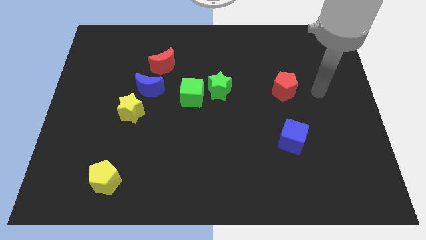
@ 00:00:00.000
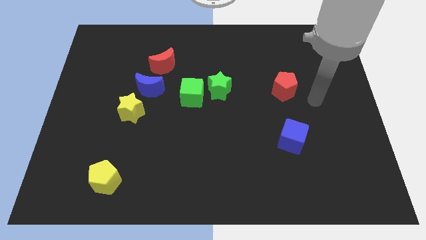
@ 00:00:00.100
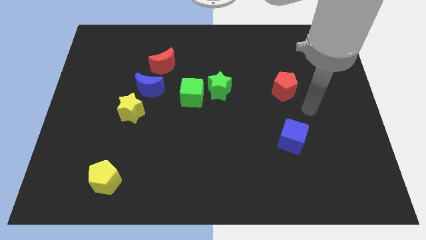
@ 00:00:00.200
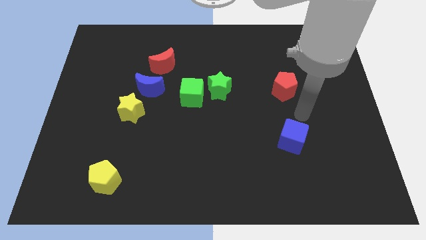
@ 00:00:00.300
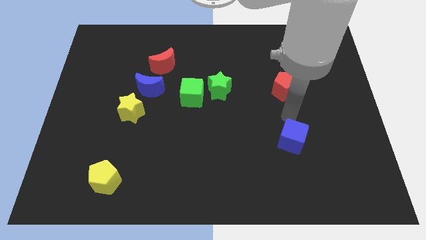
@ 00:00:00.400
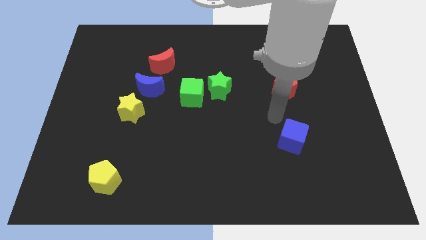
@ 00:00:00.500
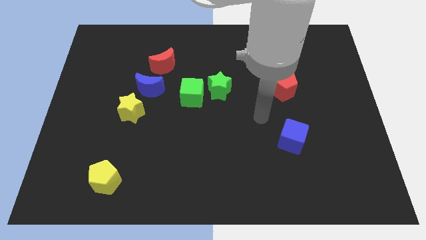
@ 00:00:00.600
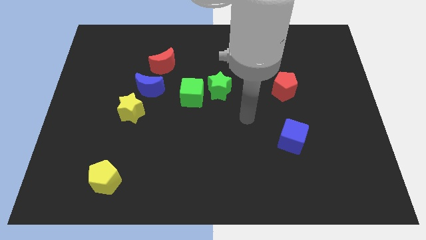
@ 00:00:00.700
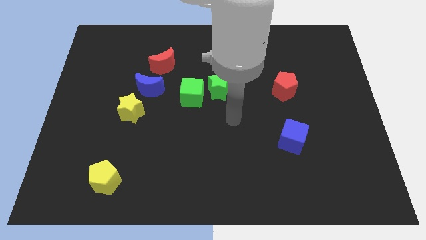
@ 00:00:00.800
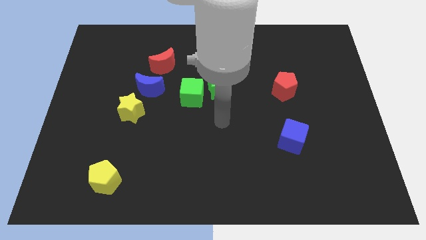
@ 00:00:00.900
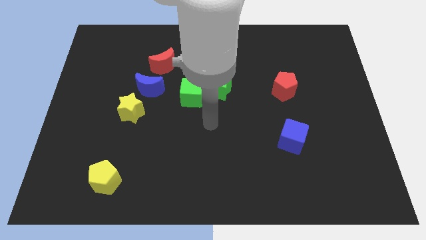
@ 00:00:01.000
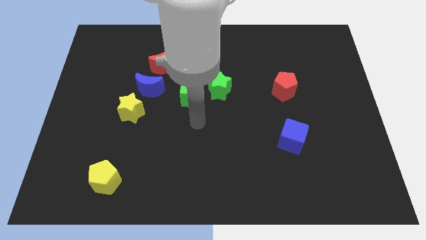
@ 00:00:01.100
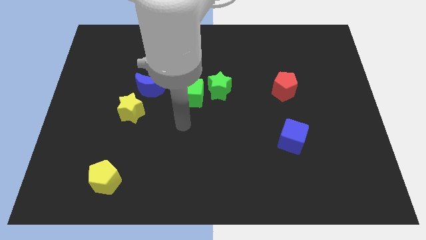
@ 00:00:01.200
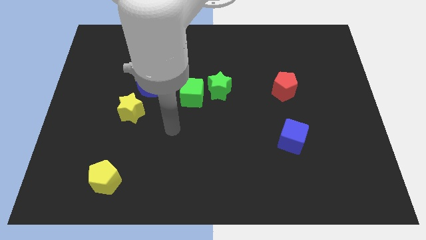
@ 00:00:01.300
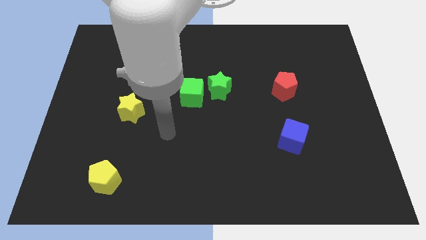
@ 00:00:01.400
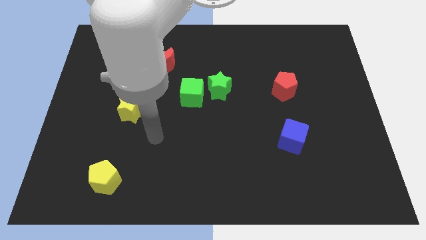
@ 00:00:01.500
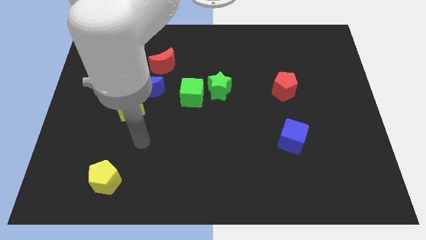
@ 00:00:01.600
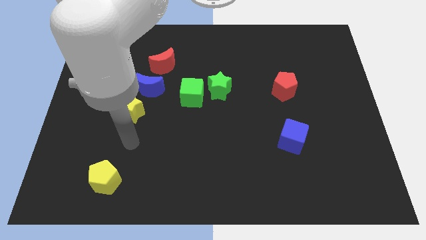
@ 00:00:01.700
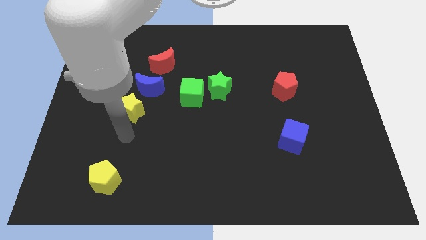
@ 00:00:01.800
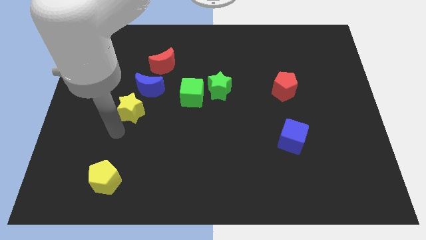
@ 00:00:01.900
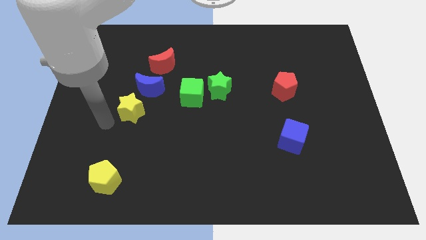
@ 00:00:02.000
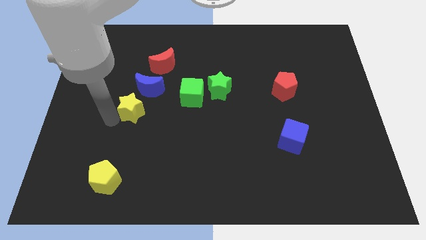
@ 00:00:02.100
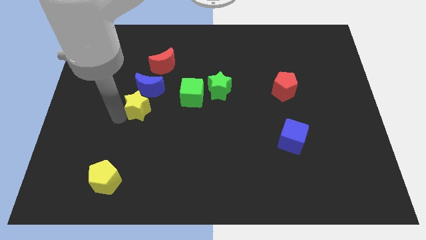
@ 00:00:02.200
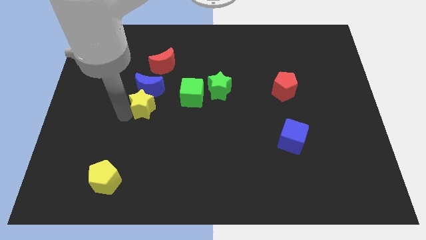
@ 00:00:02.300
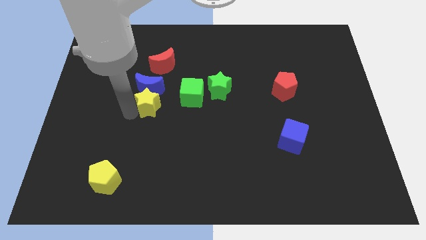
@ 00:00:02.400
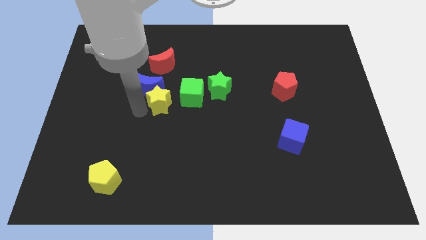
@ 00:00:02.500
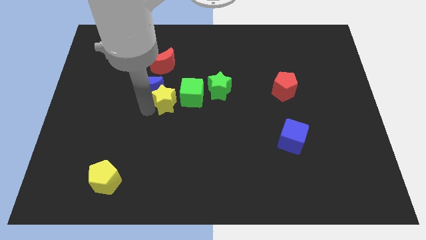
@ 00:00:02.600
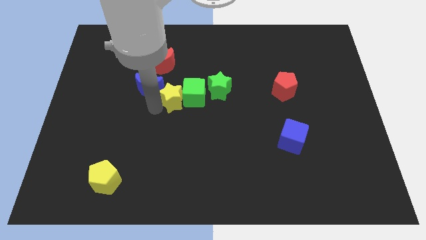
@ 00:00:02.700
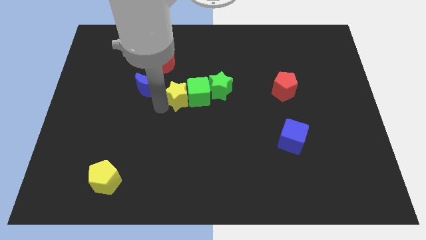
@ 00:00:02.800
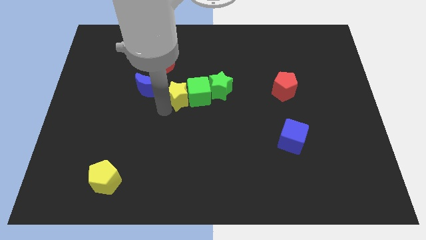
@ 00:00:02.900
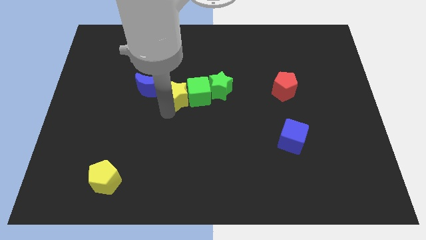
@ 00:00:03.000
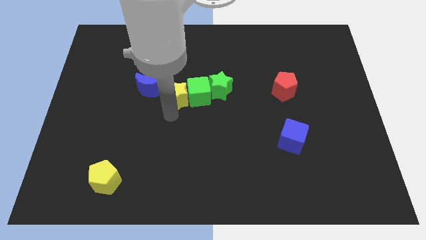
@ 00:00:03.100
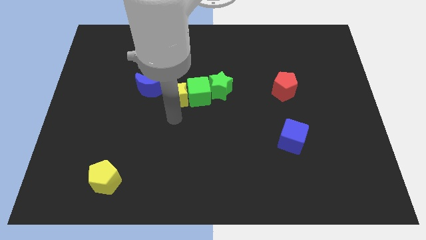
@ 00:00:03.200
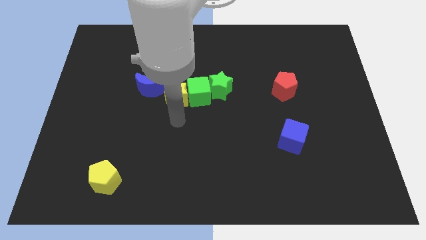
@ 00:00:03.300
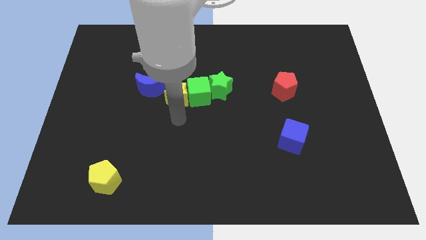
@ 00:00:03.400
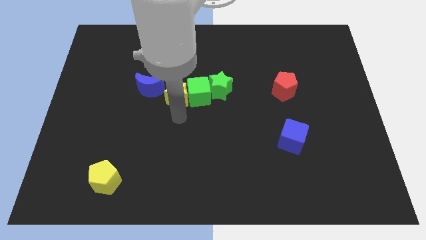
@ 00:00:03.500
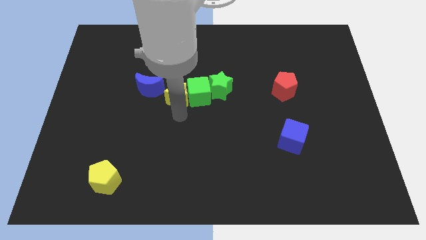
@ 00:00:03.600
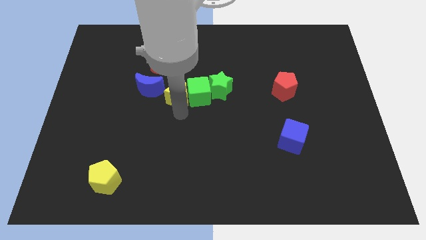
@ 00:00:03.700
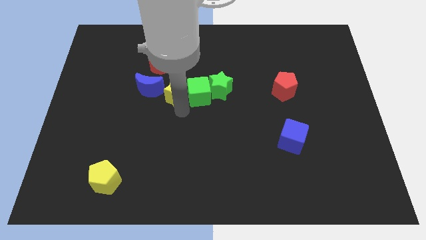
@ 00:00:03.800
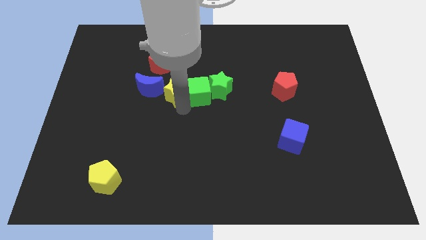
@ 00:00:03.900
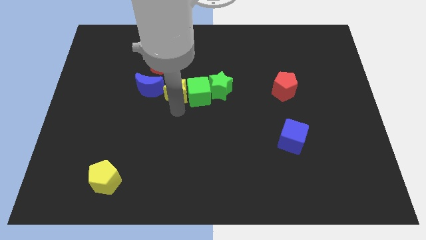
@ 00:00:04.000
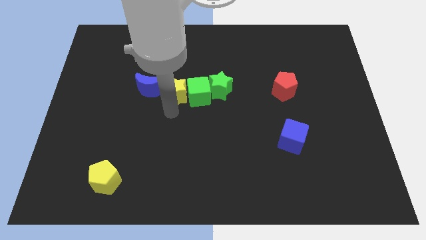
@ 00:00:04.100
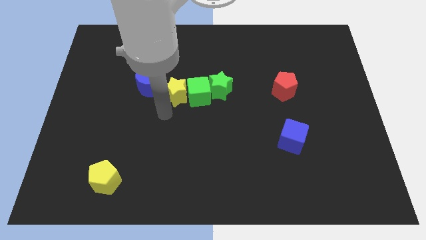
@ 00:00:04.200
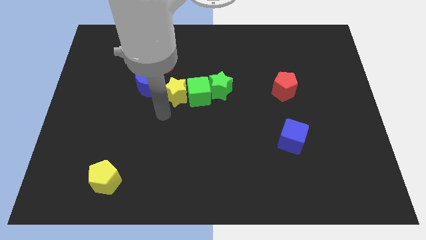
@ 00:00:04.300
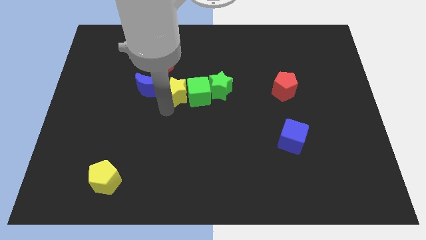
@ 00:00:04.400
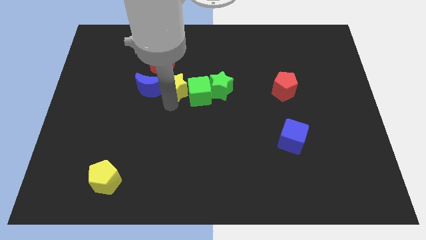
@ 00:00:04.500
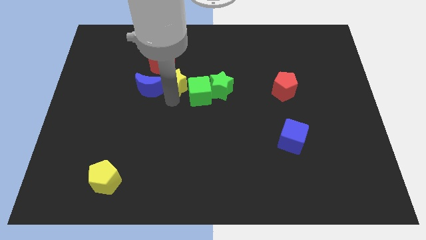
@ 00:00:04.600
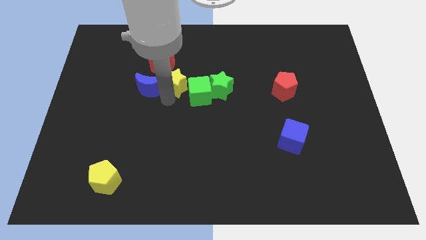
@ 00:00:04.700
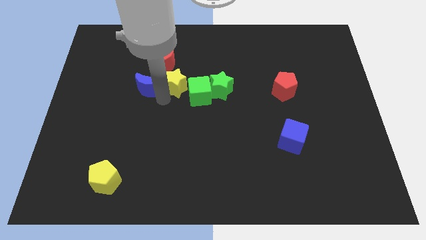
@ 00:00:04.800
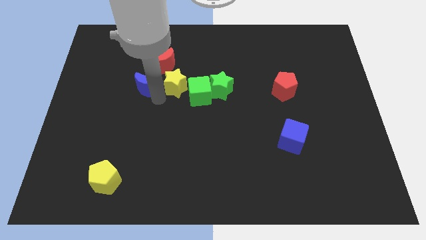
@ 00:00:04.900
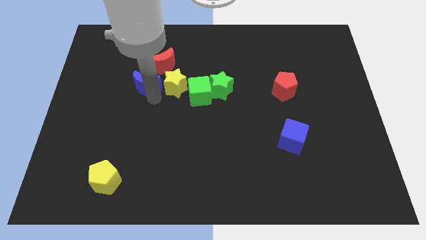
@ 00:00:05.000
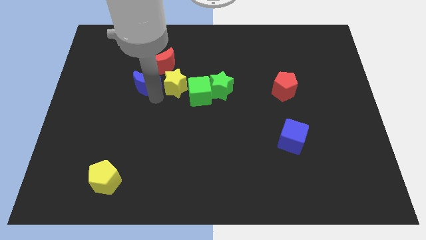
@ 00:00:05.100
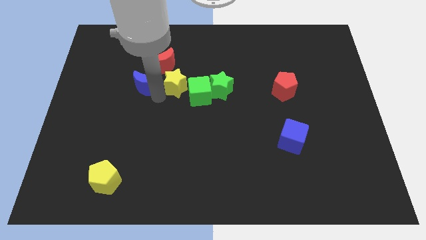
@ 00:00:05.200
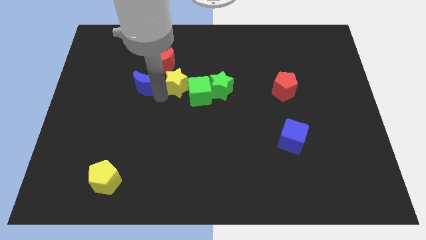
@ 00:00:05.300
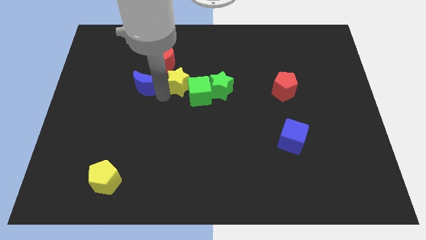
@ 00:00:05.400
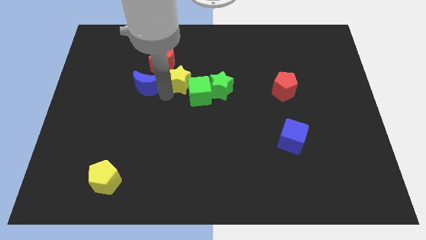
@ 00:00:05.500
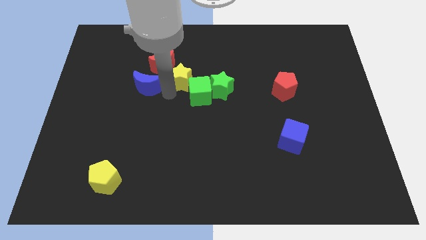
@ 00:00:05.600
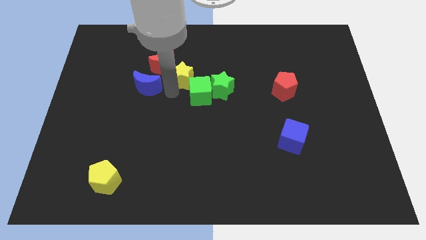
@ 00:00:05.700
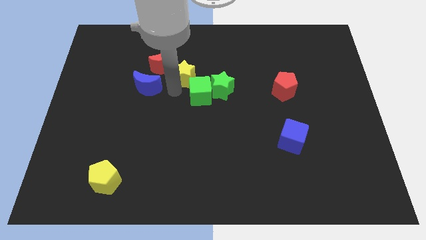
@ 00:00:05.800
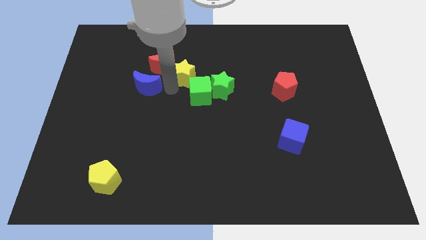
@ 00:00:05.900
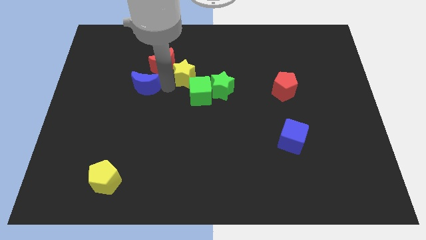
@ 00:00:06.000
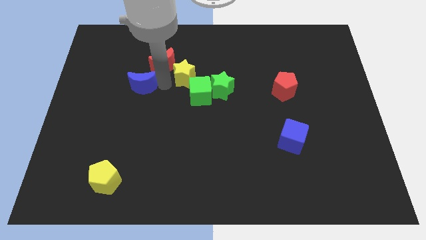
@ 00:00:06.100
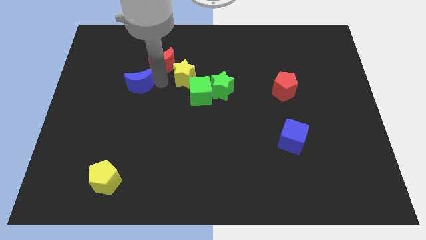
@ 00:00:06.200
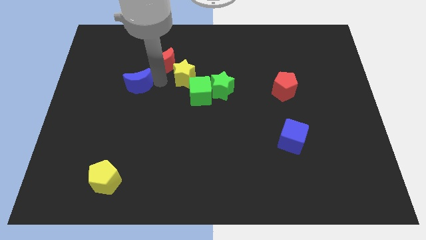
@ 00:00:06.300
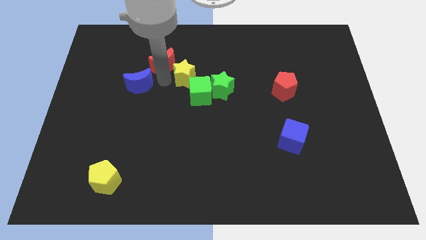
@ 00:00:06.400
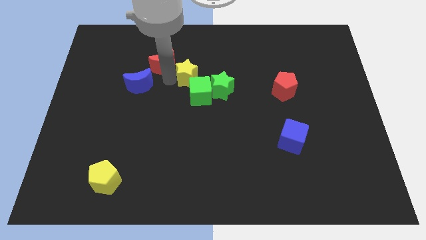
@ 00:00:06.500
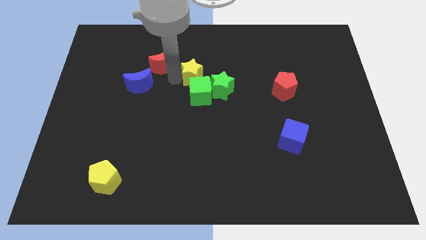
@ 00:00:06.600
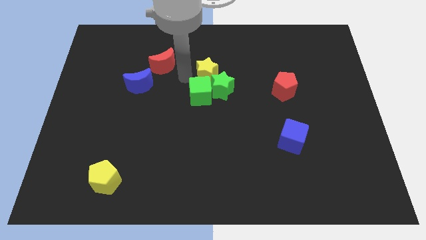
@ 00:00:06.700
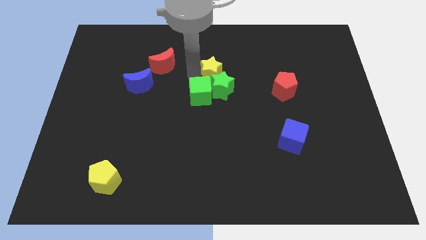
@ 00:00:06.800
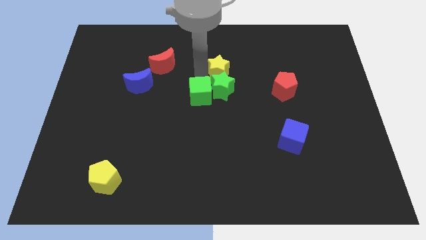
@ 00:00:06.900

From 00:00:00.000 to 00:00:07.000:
slide the yellow star to the top right of the green star
